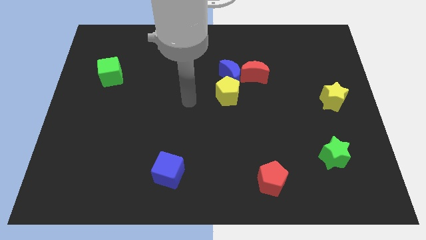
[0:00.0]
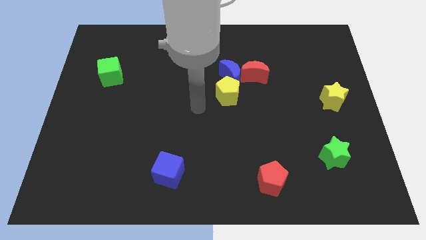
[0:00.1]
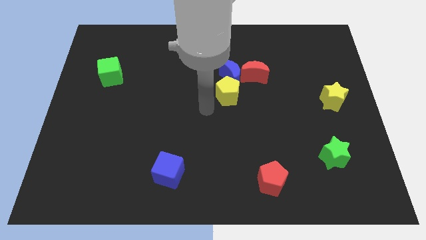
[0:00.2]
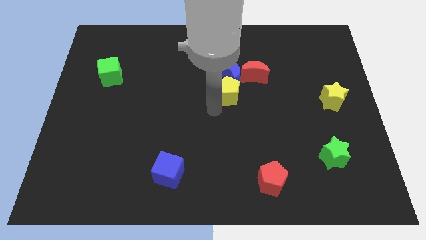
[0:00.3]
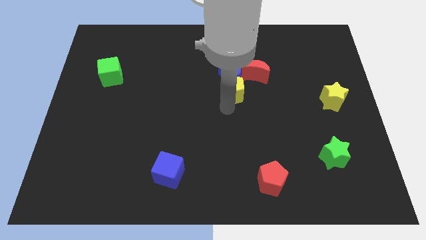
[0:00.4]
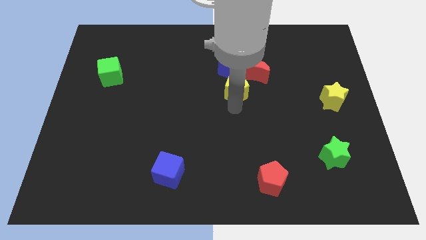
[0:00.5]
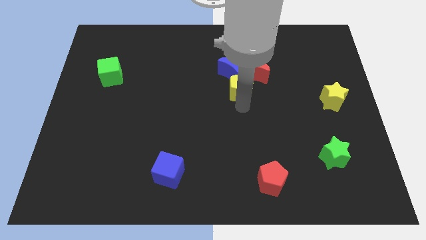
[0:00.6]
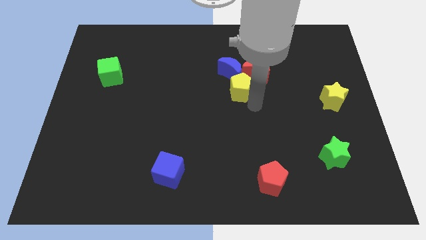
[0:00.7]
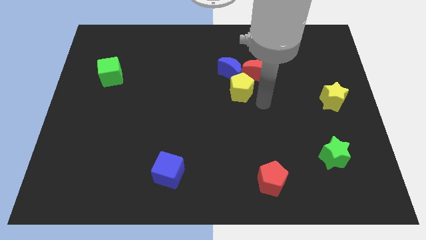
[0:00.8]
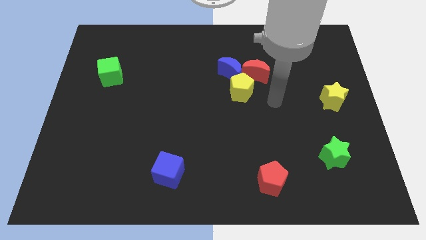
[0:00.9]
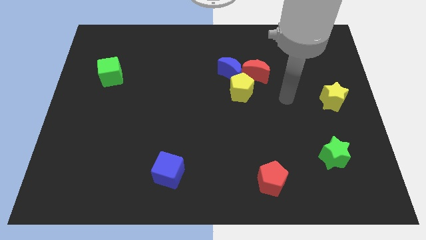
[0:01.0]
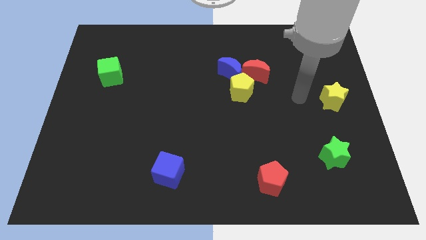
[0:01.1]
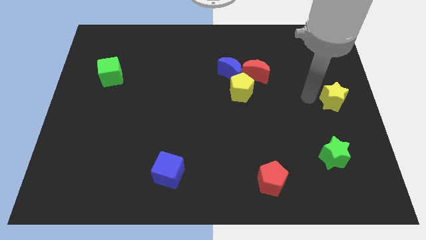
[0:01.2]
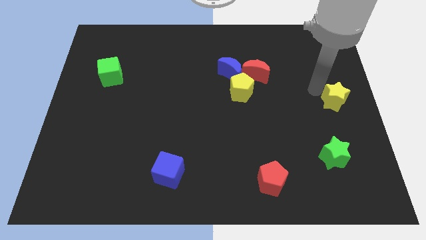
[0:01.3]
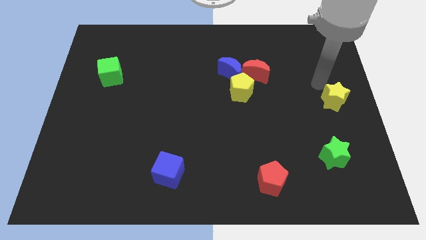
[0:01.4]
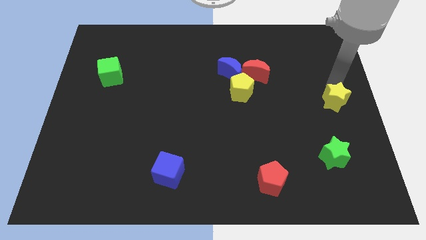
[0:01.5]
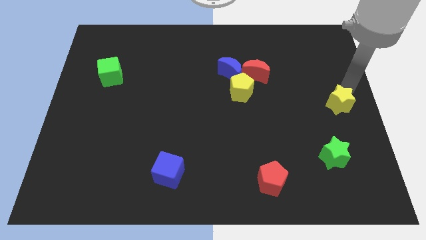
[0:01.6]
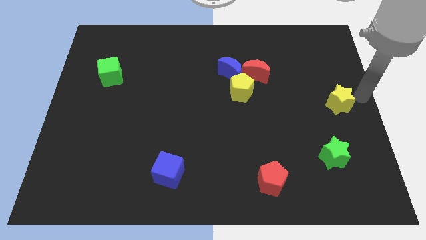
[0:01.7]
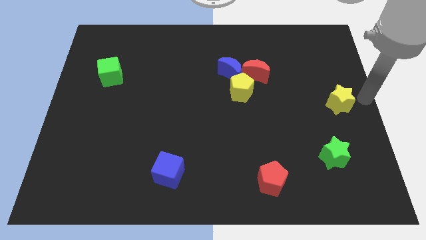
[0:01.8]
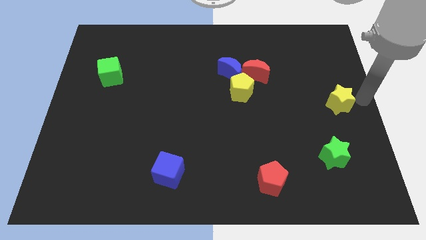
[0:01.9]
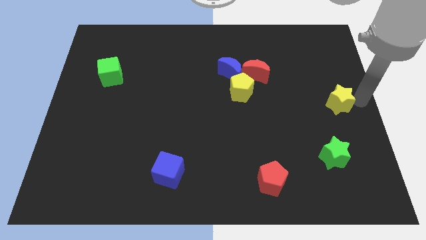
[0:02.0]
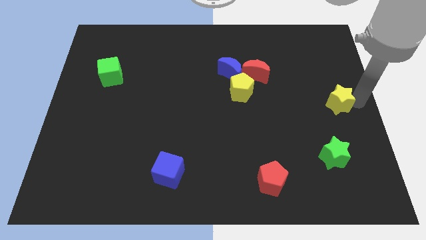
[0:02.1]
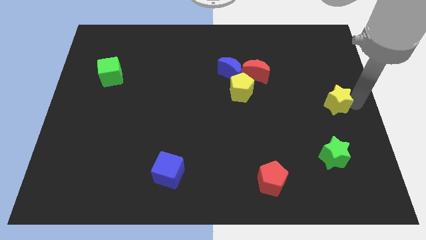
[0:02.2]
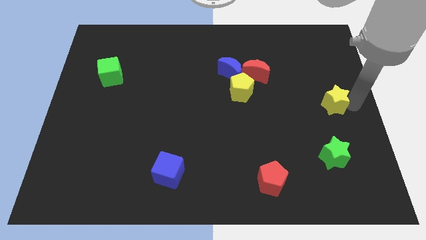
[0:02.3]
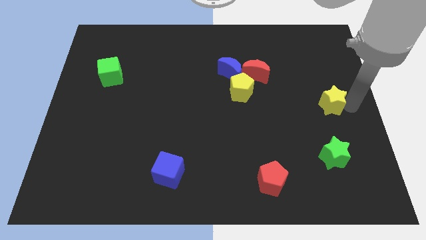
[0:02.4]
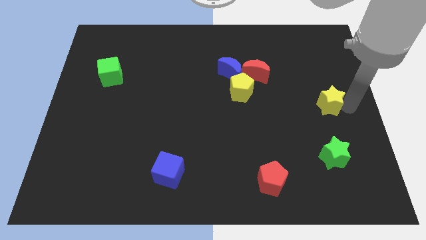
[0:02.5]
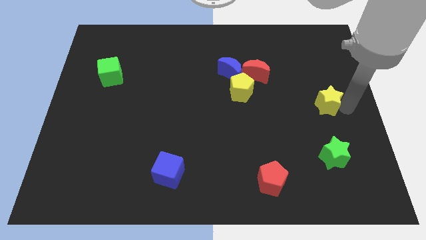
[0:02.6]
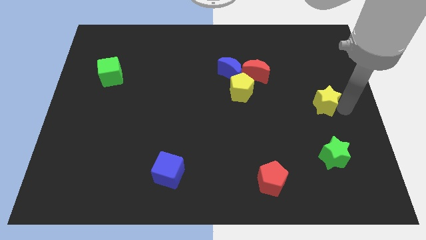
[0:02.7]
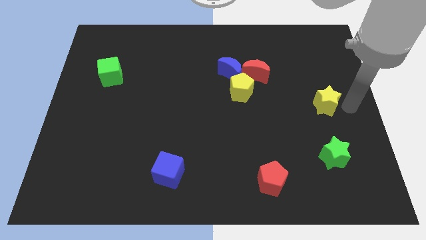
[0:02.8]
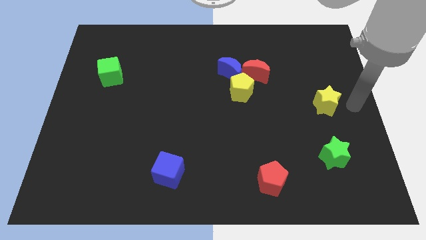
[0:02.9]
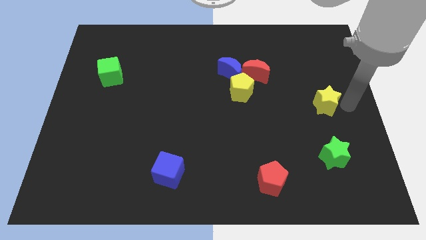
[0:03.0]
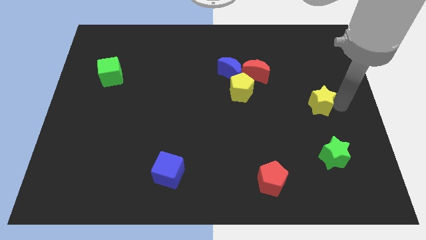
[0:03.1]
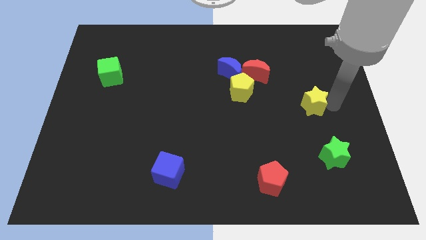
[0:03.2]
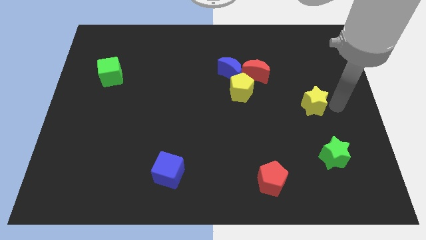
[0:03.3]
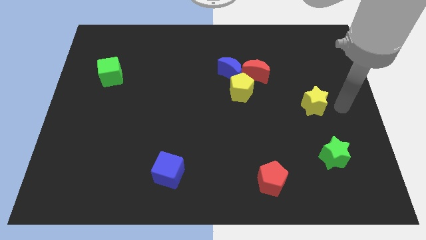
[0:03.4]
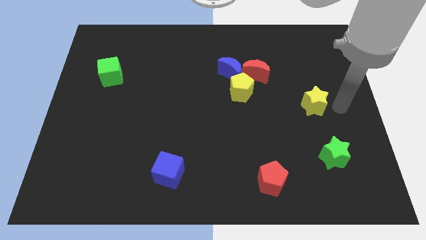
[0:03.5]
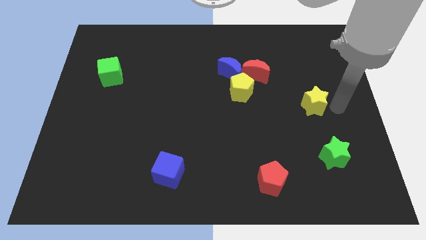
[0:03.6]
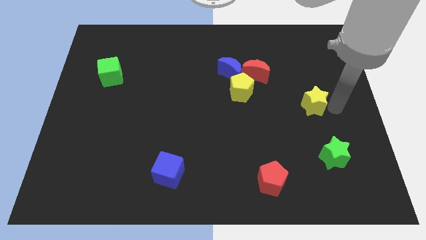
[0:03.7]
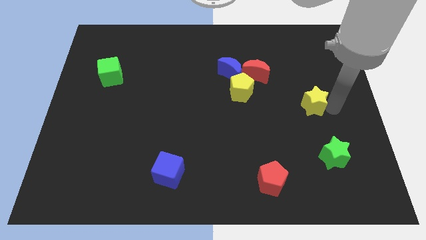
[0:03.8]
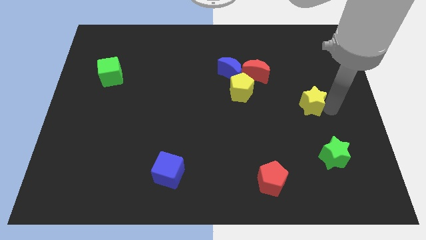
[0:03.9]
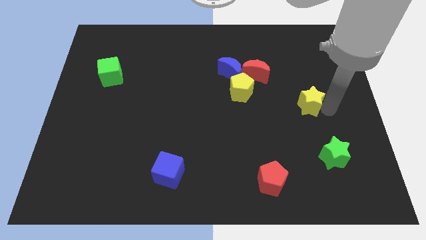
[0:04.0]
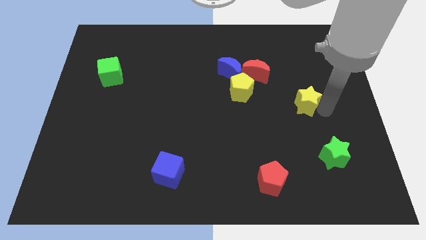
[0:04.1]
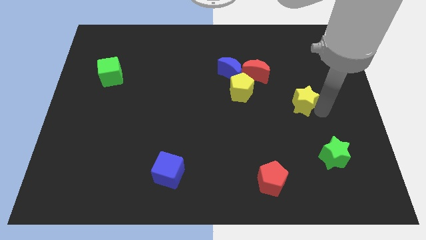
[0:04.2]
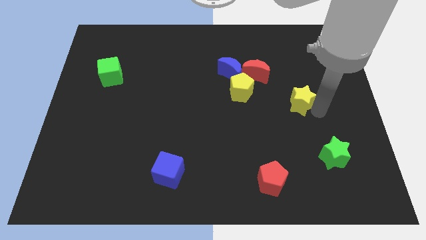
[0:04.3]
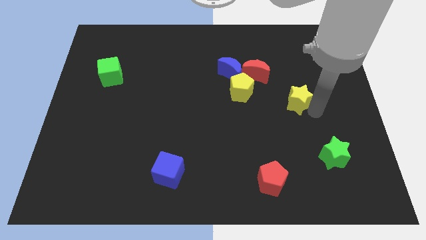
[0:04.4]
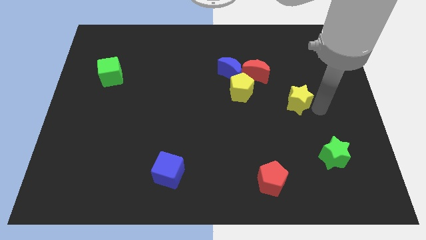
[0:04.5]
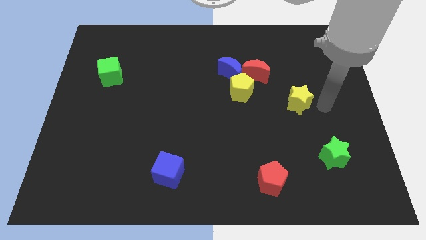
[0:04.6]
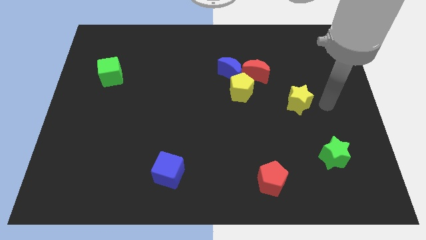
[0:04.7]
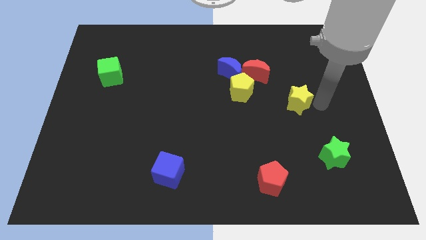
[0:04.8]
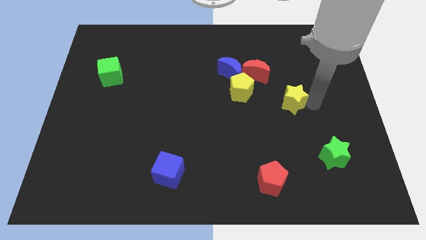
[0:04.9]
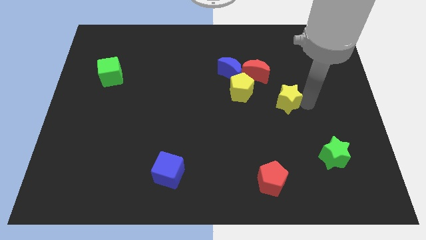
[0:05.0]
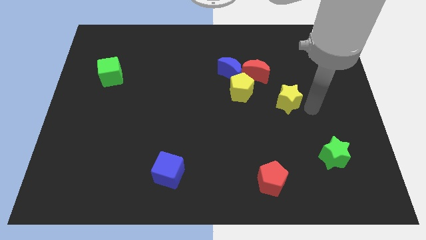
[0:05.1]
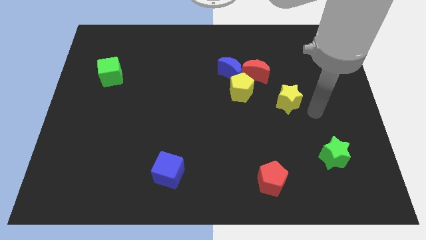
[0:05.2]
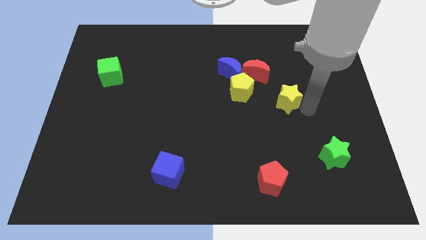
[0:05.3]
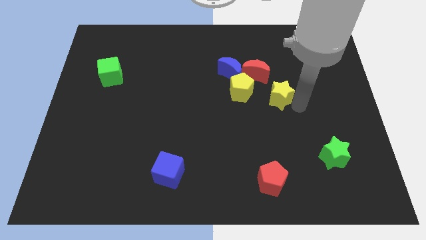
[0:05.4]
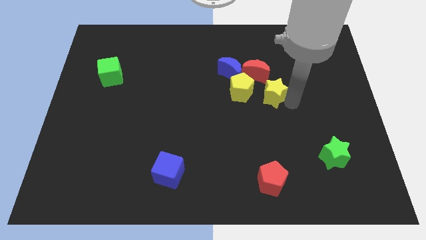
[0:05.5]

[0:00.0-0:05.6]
put the yellow star to the bottom right of the blue moon

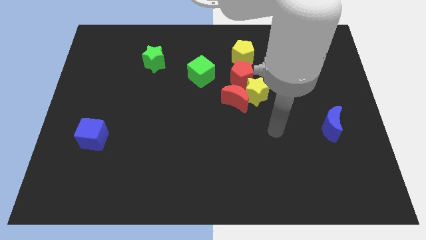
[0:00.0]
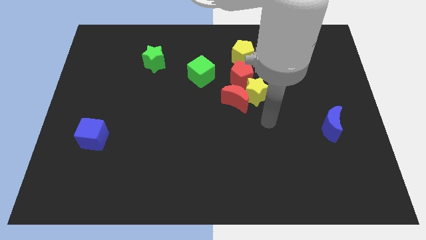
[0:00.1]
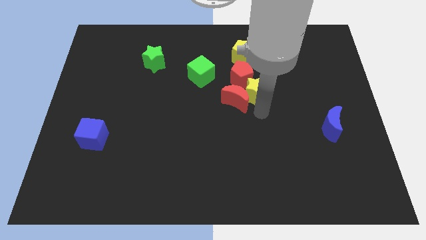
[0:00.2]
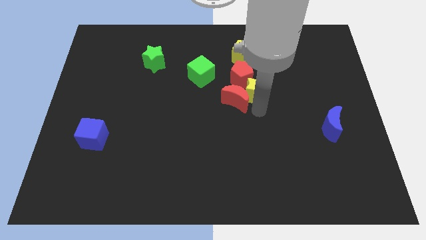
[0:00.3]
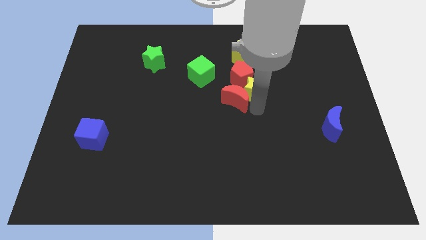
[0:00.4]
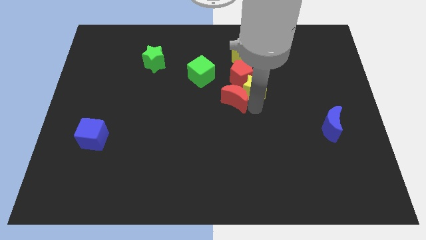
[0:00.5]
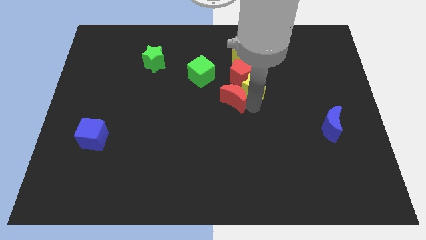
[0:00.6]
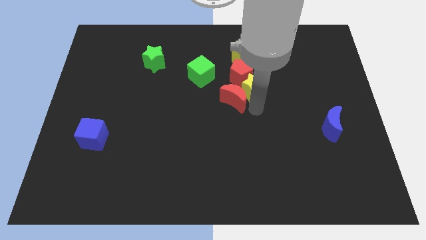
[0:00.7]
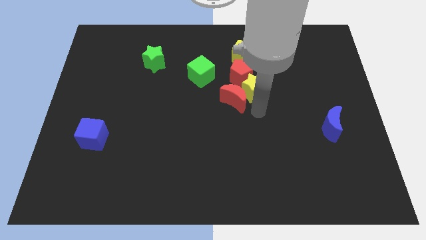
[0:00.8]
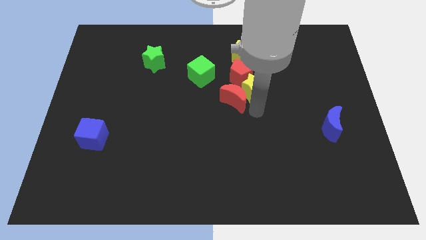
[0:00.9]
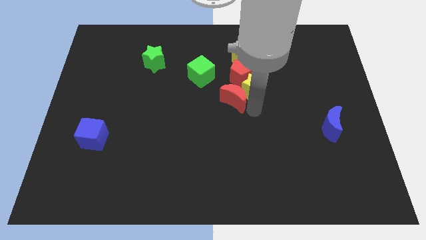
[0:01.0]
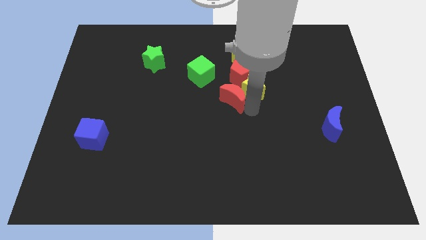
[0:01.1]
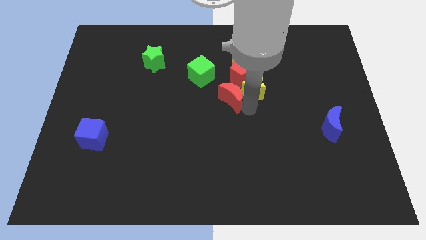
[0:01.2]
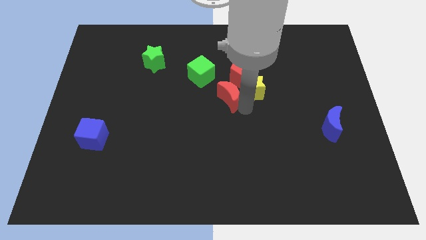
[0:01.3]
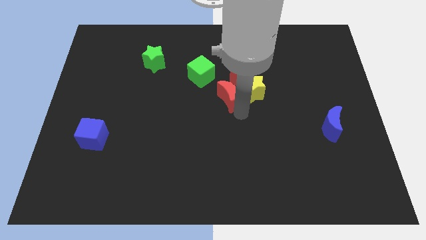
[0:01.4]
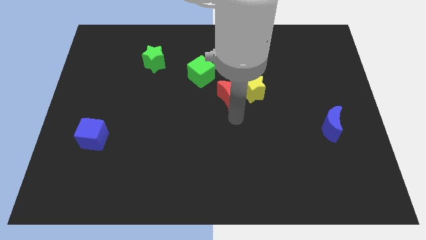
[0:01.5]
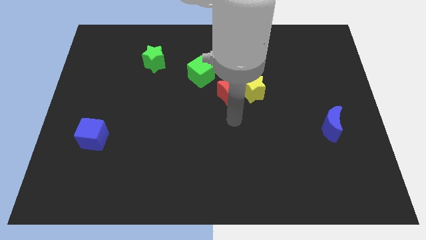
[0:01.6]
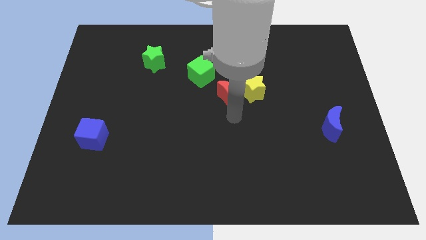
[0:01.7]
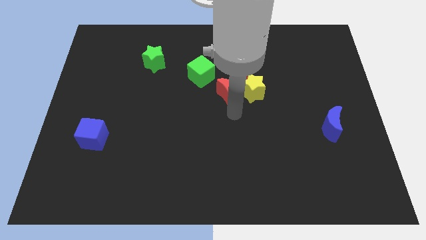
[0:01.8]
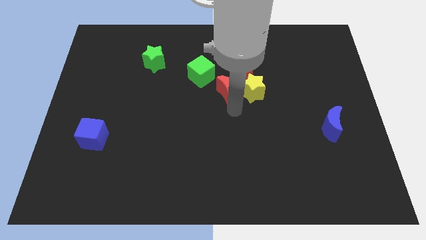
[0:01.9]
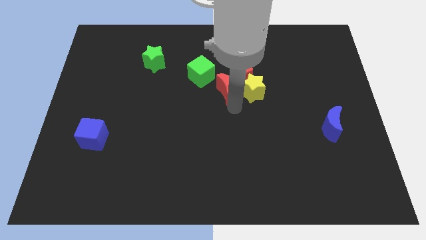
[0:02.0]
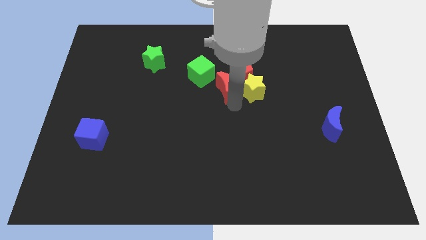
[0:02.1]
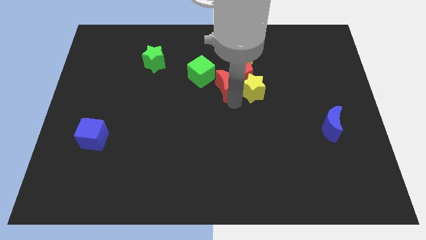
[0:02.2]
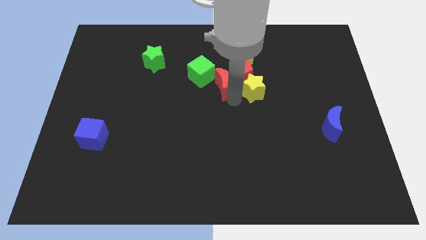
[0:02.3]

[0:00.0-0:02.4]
move the red moon diagonally down and to the left of the yellow pentagon
